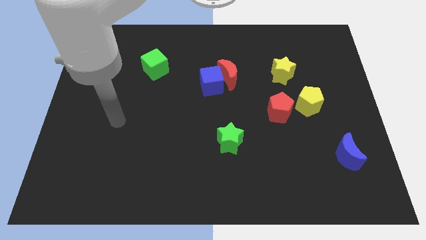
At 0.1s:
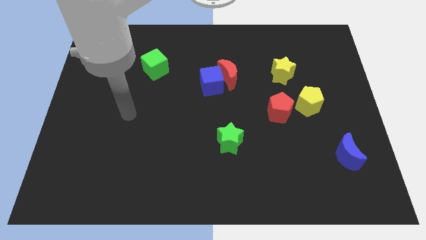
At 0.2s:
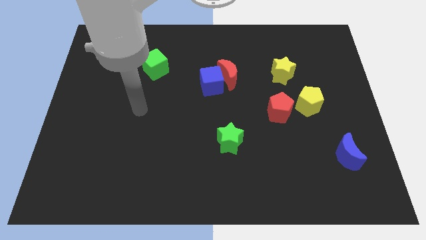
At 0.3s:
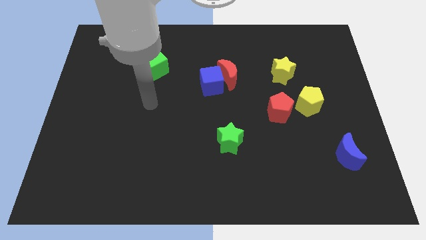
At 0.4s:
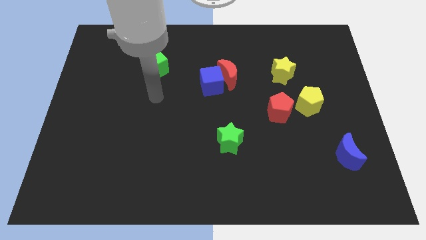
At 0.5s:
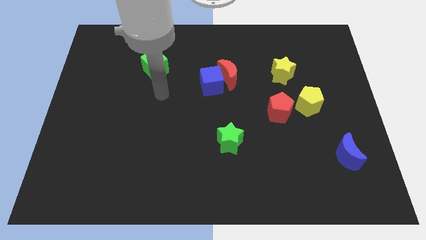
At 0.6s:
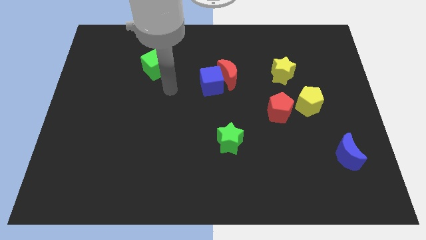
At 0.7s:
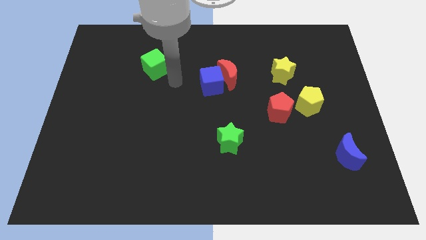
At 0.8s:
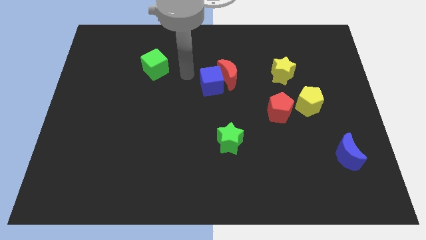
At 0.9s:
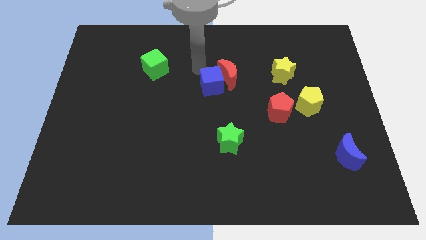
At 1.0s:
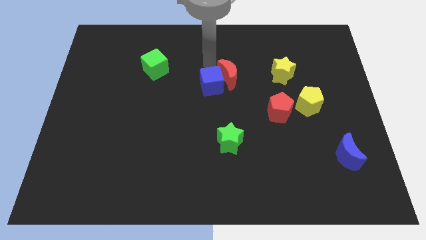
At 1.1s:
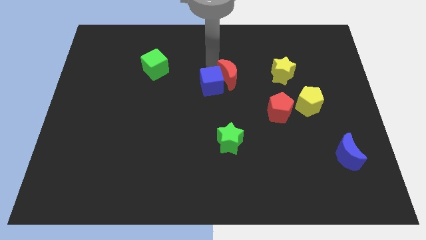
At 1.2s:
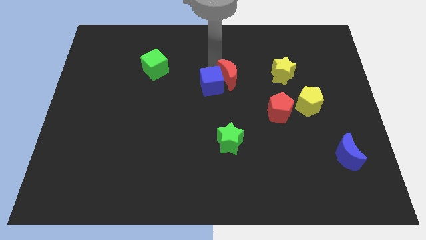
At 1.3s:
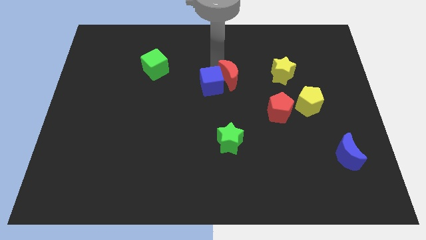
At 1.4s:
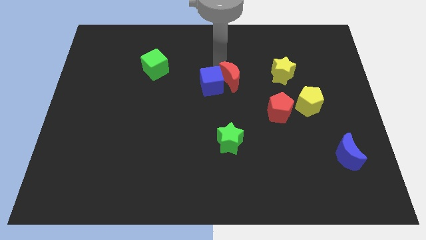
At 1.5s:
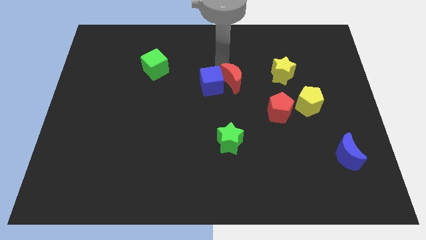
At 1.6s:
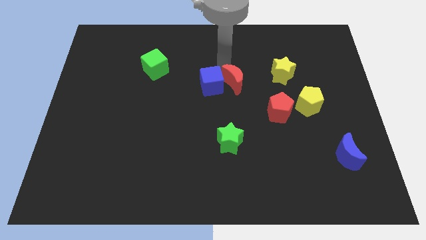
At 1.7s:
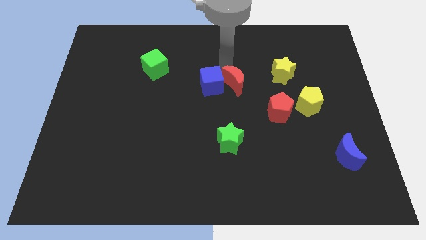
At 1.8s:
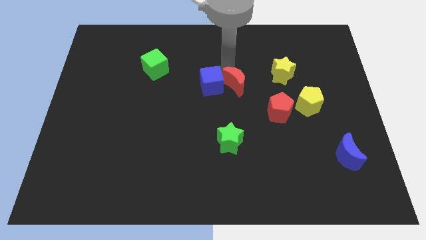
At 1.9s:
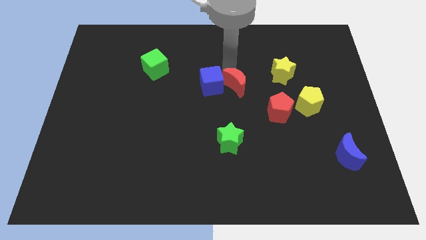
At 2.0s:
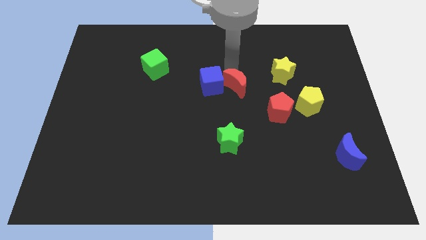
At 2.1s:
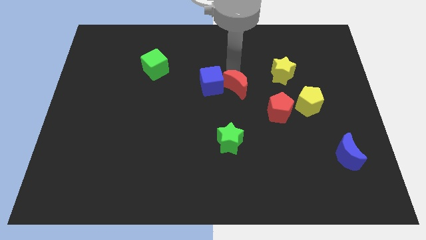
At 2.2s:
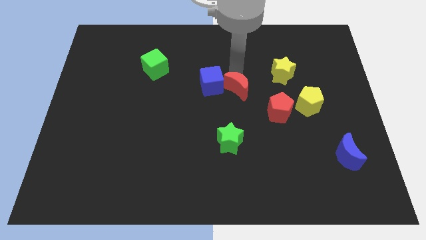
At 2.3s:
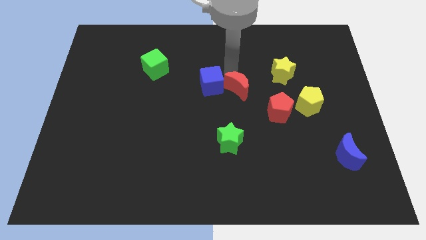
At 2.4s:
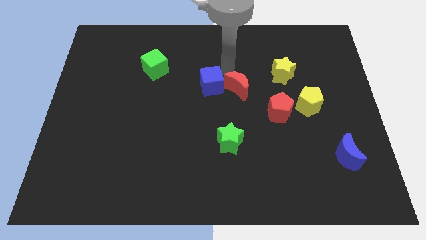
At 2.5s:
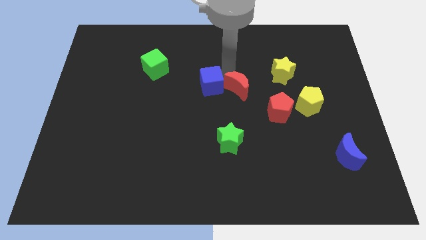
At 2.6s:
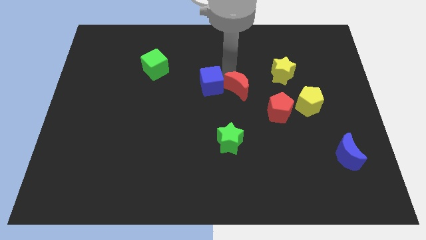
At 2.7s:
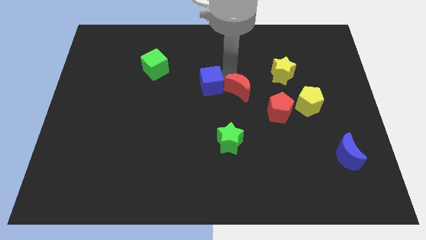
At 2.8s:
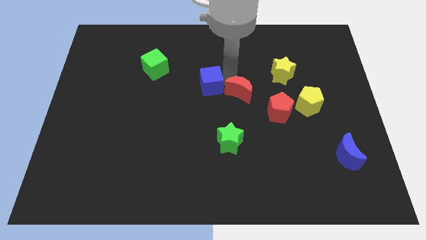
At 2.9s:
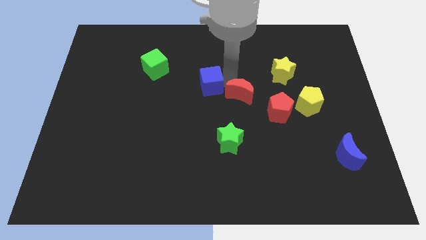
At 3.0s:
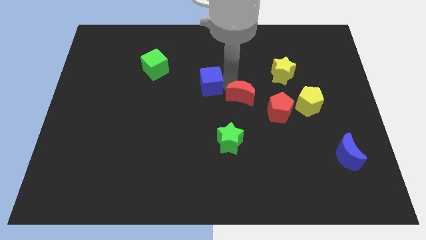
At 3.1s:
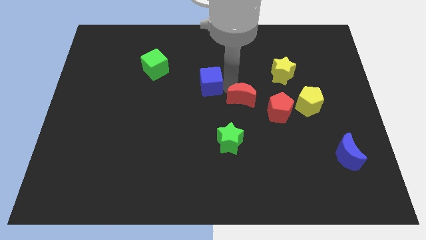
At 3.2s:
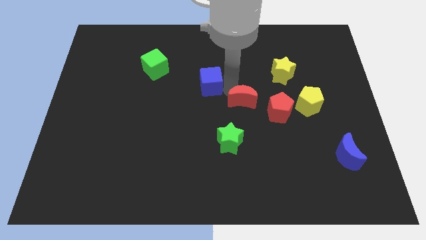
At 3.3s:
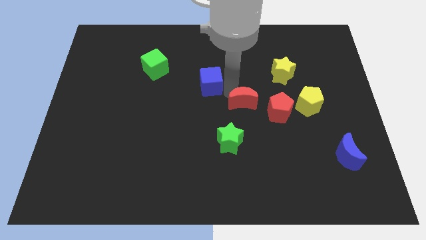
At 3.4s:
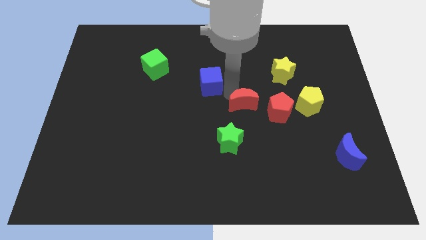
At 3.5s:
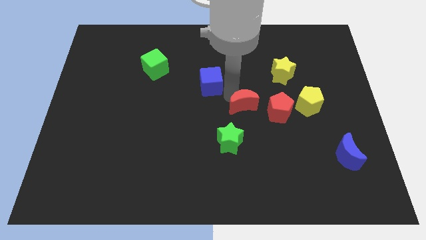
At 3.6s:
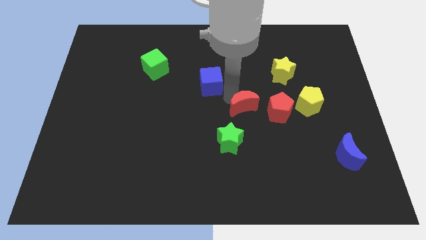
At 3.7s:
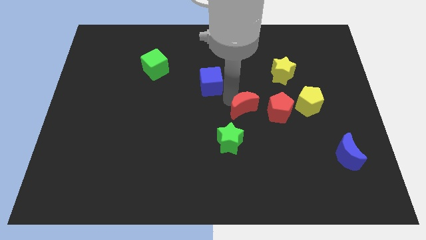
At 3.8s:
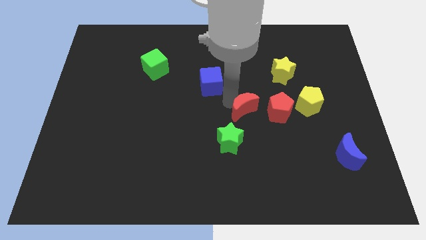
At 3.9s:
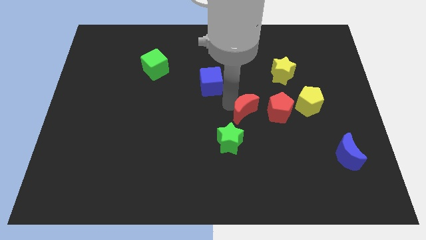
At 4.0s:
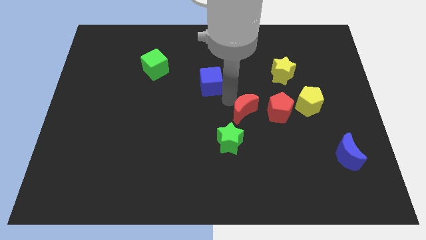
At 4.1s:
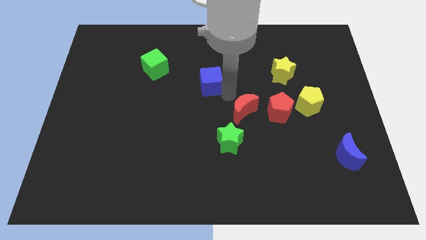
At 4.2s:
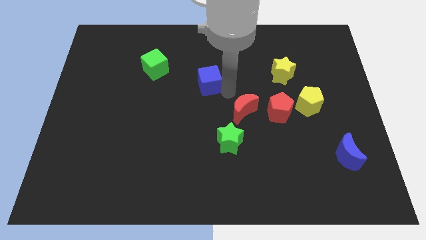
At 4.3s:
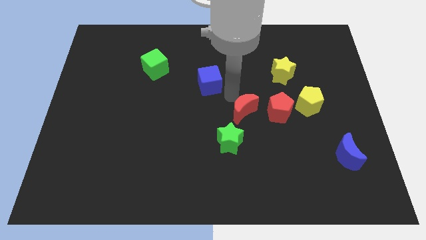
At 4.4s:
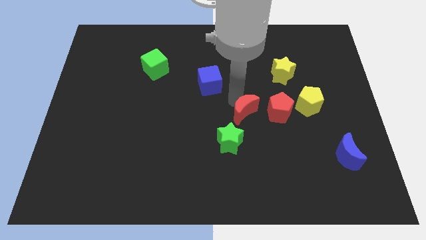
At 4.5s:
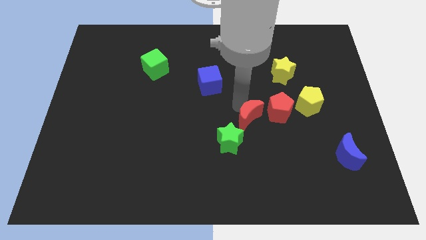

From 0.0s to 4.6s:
put the red moon to the bottom left of the red pentagon

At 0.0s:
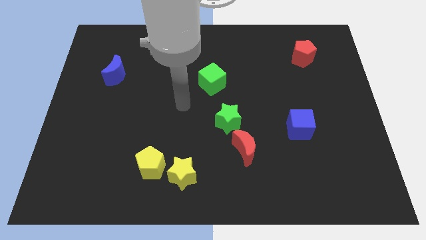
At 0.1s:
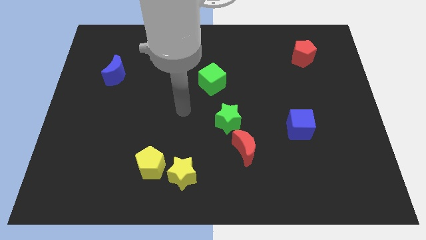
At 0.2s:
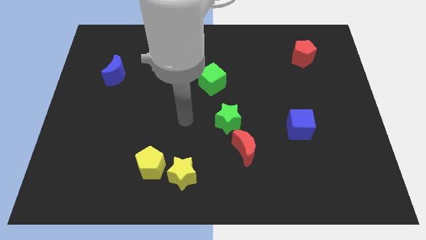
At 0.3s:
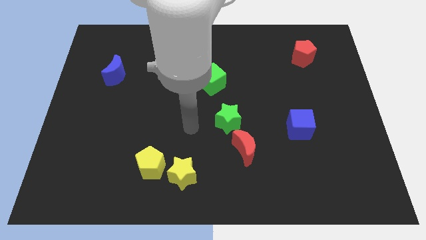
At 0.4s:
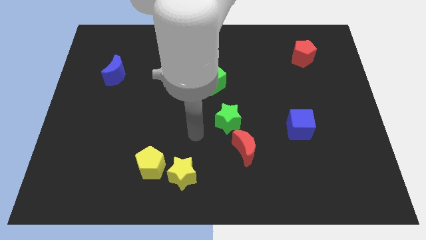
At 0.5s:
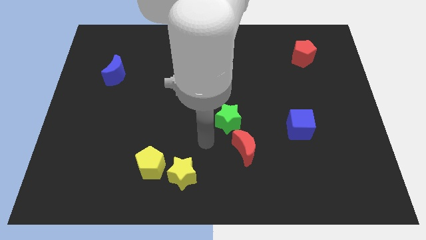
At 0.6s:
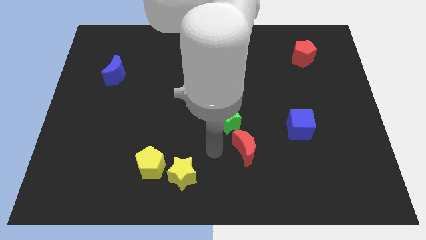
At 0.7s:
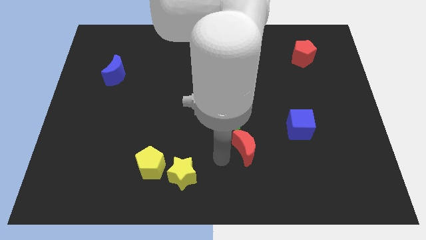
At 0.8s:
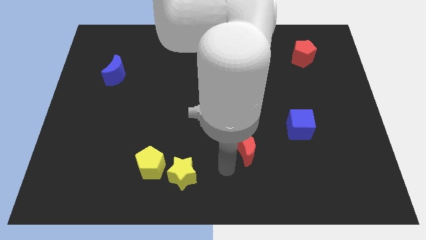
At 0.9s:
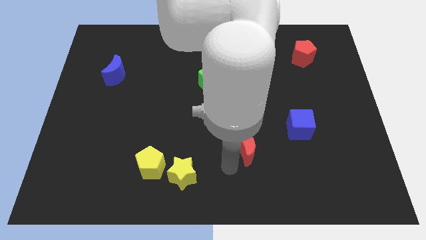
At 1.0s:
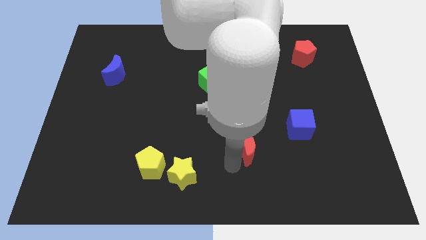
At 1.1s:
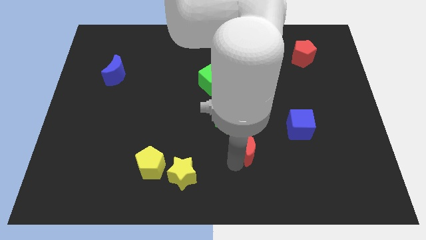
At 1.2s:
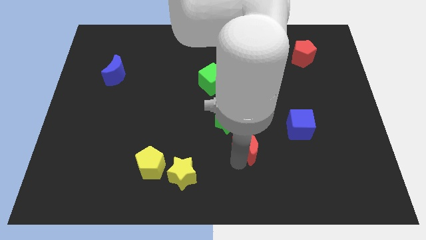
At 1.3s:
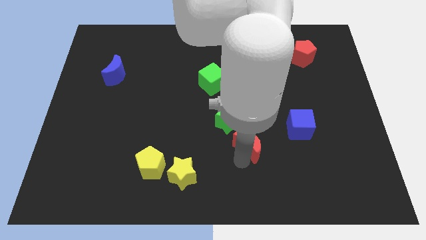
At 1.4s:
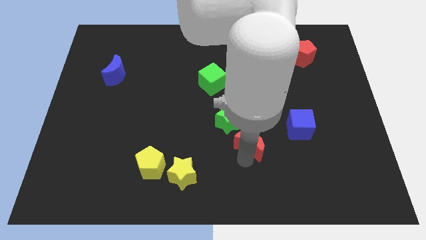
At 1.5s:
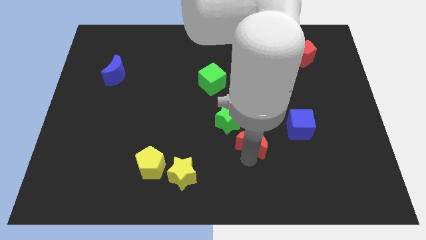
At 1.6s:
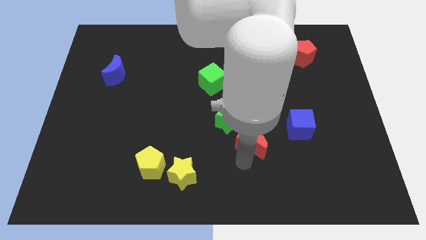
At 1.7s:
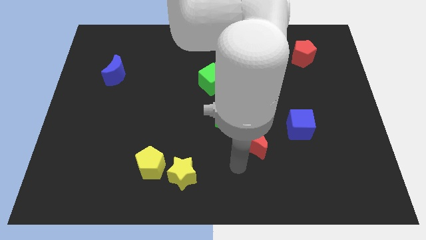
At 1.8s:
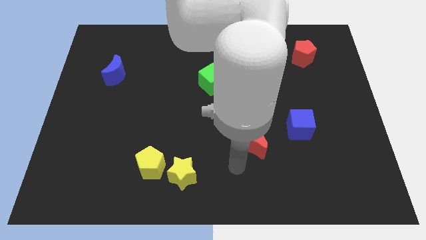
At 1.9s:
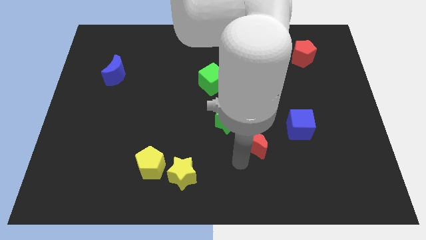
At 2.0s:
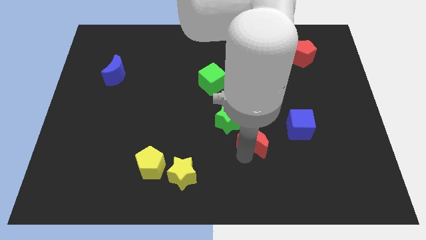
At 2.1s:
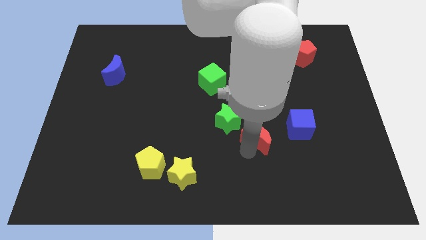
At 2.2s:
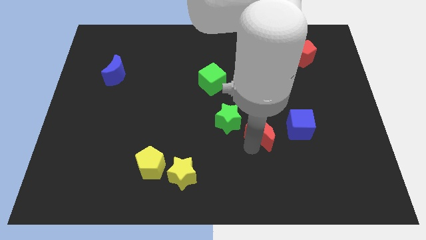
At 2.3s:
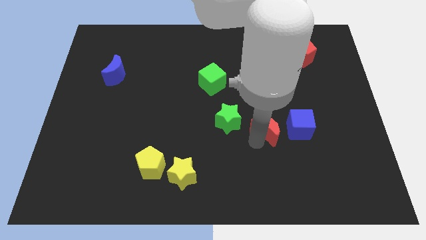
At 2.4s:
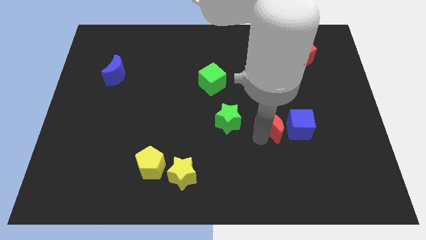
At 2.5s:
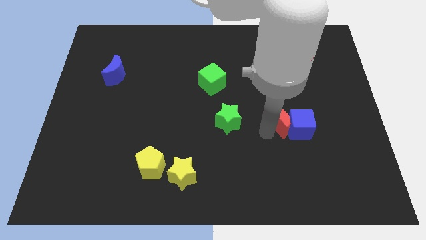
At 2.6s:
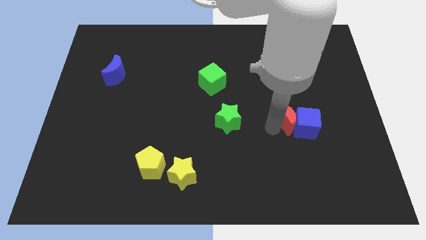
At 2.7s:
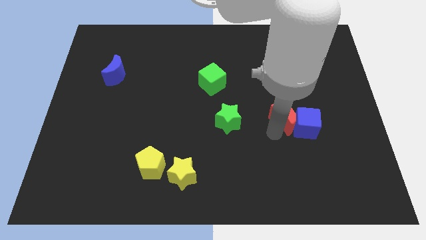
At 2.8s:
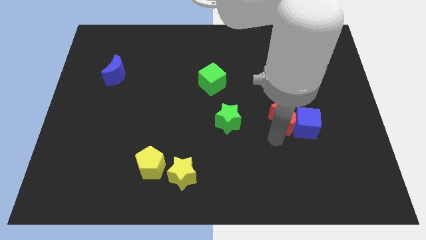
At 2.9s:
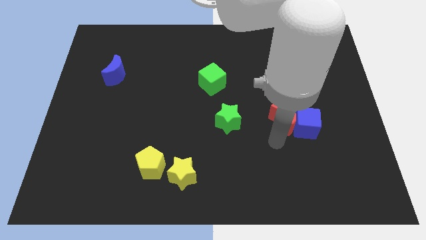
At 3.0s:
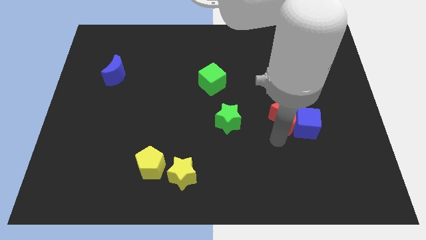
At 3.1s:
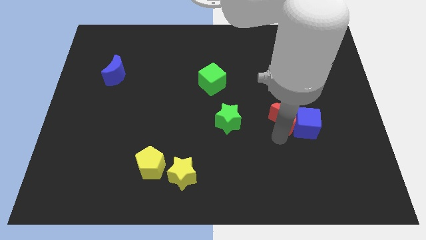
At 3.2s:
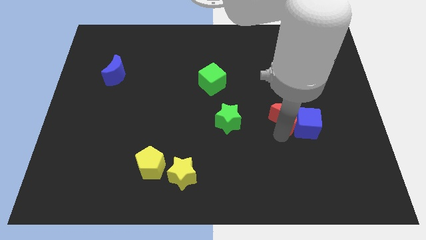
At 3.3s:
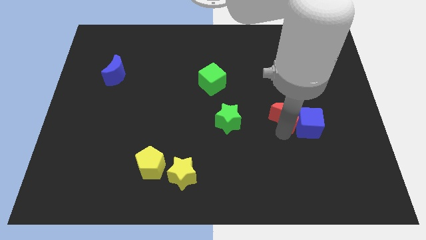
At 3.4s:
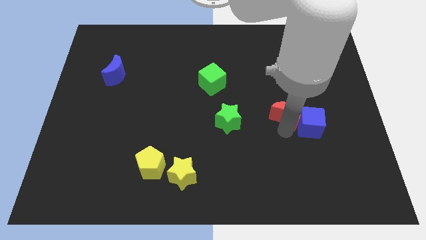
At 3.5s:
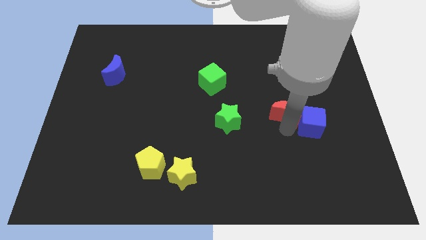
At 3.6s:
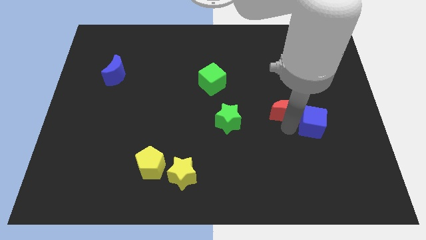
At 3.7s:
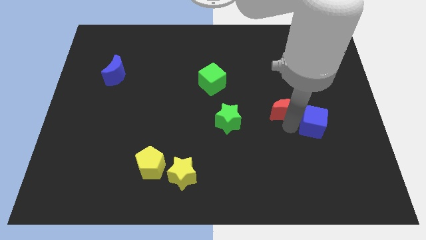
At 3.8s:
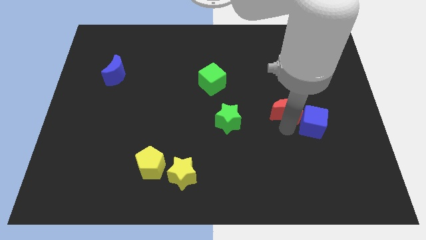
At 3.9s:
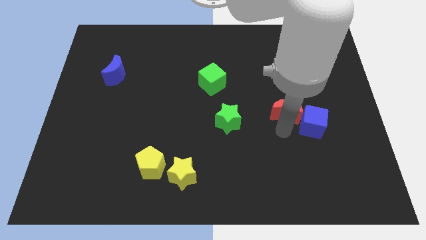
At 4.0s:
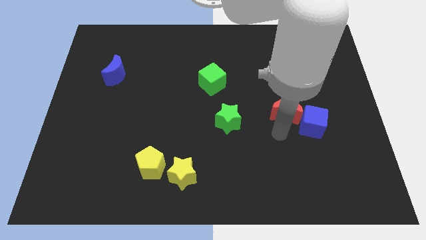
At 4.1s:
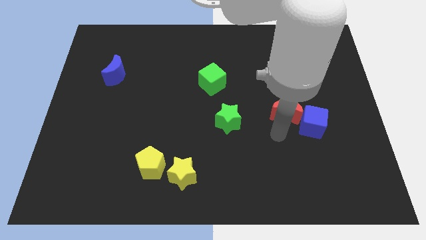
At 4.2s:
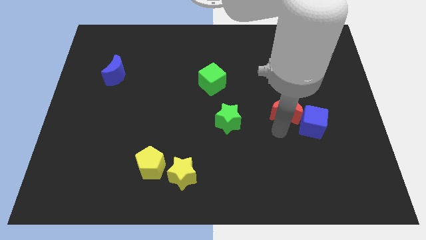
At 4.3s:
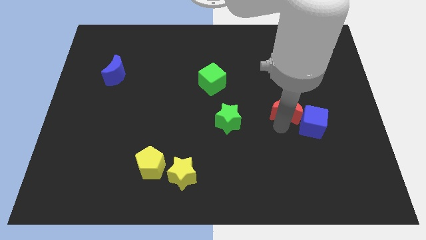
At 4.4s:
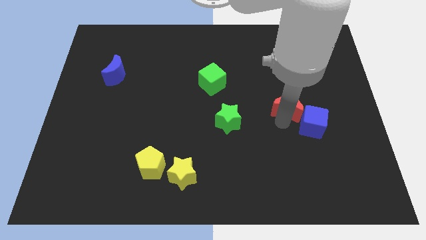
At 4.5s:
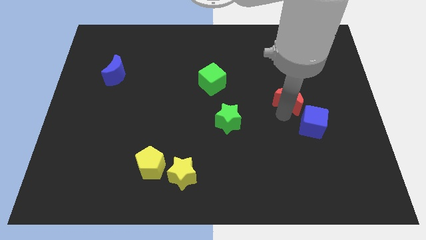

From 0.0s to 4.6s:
slide the red moon to the top of the blue cube
